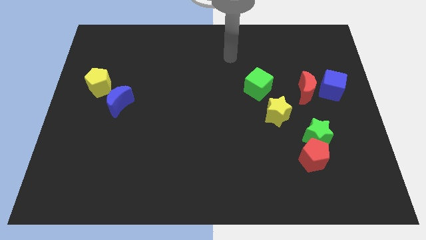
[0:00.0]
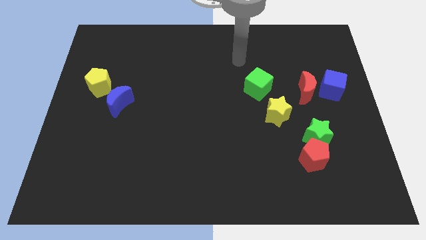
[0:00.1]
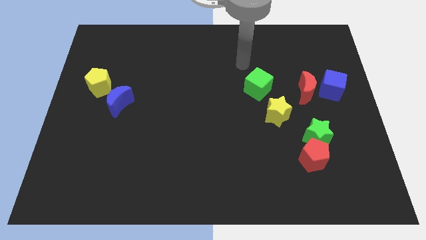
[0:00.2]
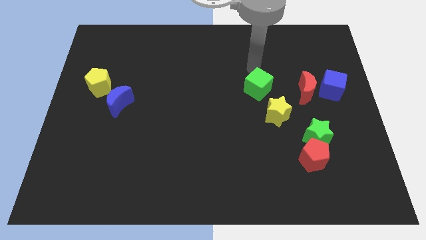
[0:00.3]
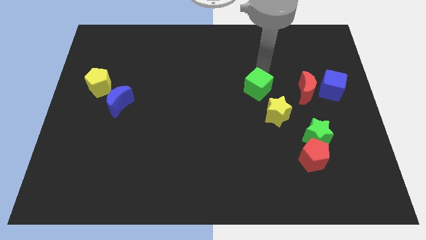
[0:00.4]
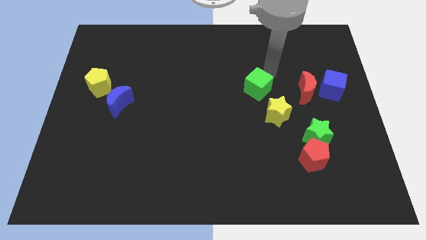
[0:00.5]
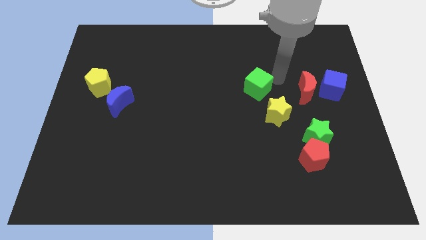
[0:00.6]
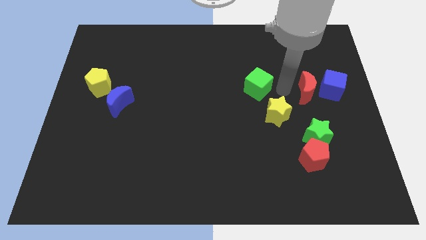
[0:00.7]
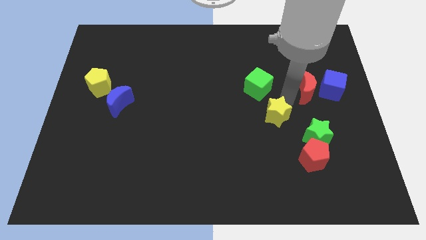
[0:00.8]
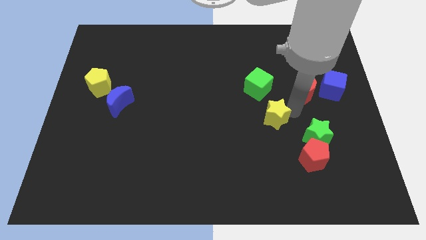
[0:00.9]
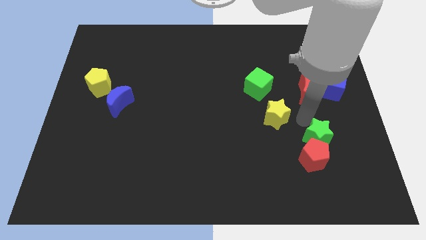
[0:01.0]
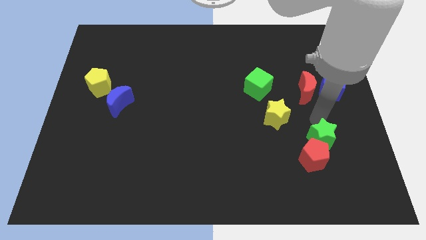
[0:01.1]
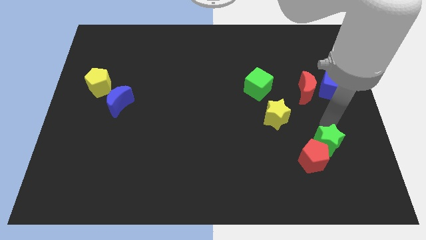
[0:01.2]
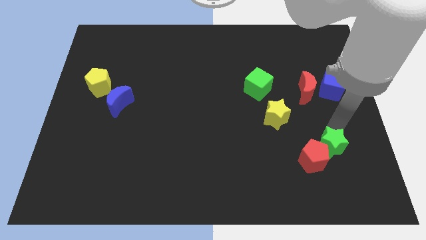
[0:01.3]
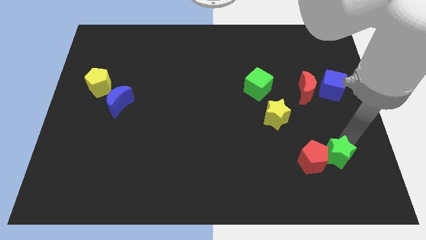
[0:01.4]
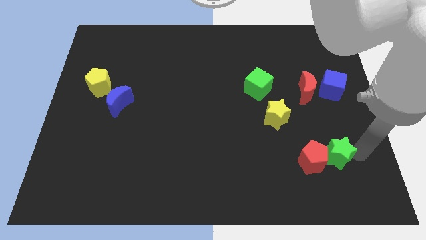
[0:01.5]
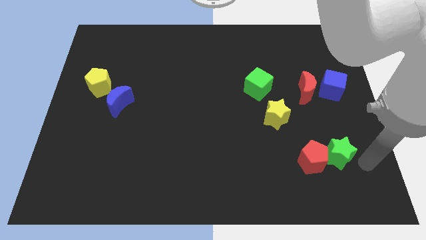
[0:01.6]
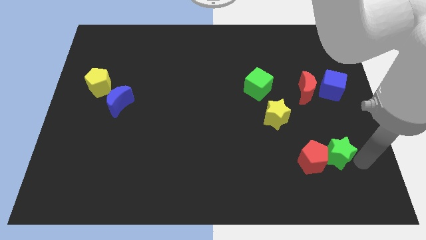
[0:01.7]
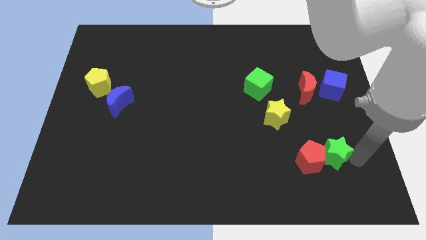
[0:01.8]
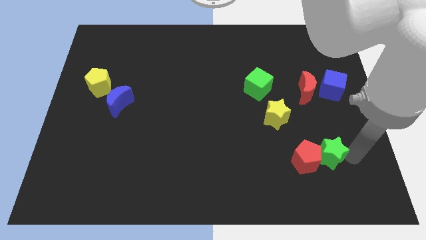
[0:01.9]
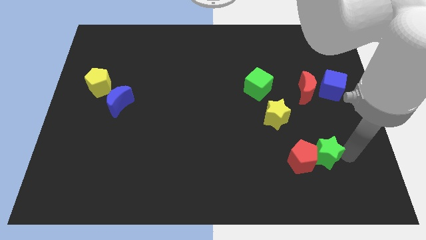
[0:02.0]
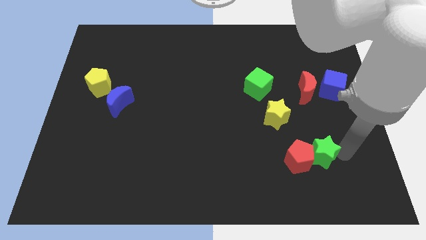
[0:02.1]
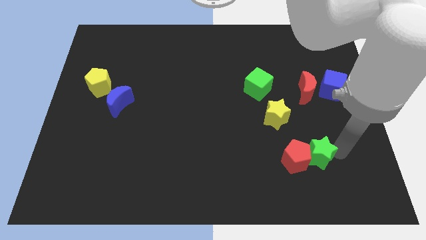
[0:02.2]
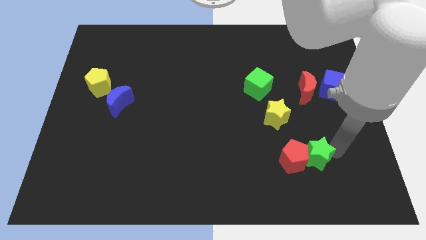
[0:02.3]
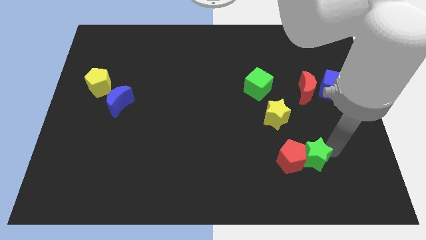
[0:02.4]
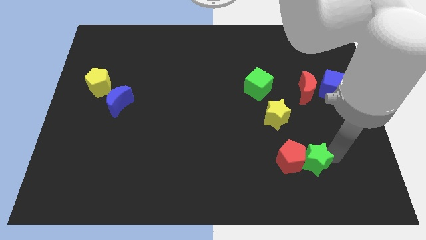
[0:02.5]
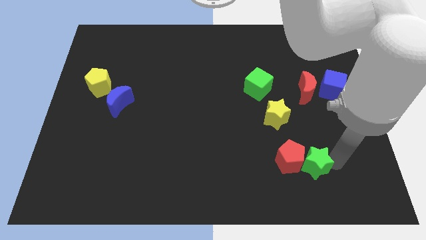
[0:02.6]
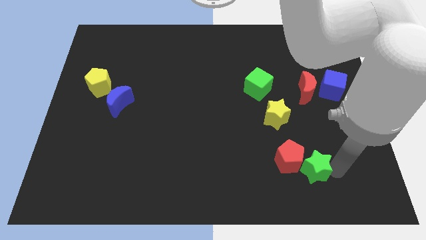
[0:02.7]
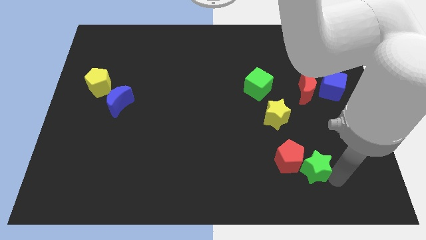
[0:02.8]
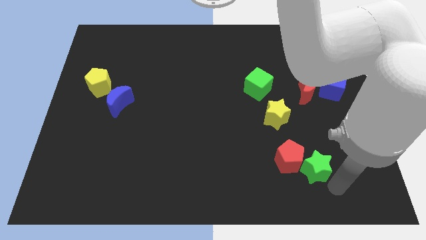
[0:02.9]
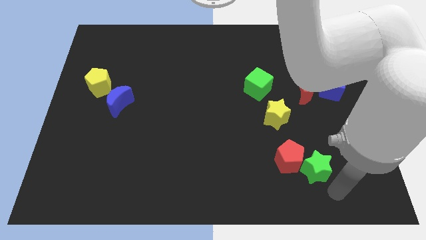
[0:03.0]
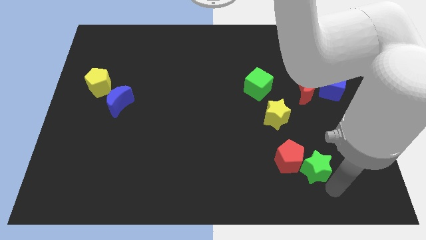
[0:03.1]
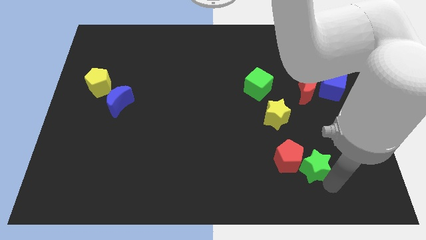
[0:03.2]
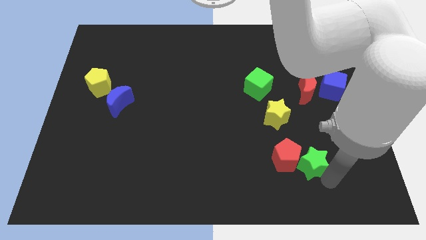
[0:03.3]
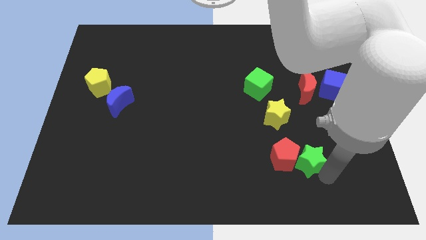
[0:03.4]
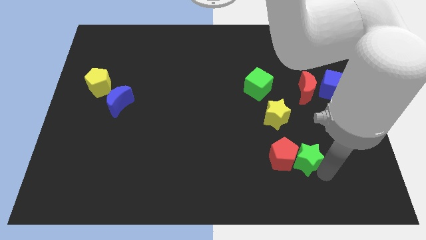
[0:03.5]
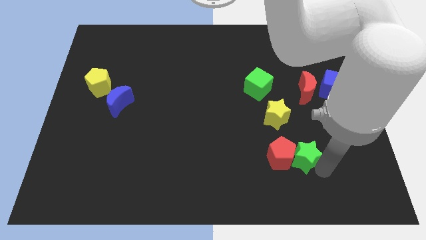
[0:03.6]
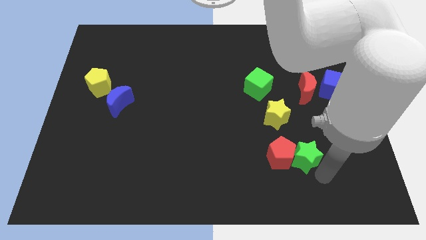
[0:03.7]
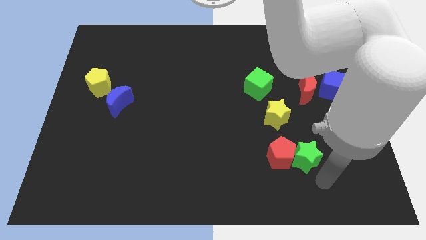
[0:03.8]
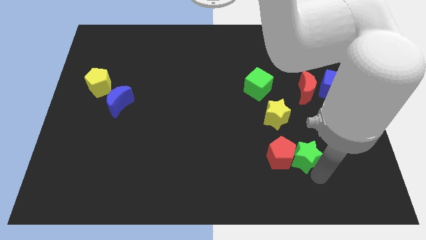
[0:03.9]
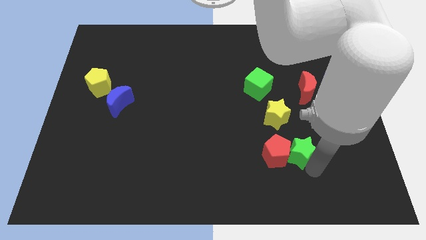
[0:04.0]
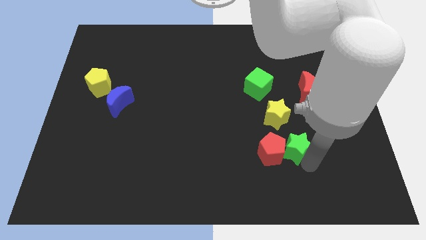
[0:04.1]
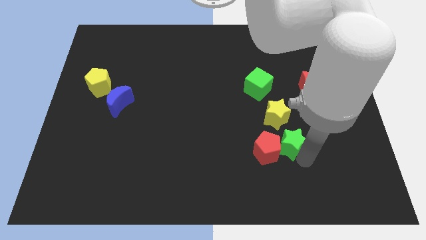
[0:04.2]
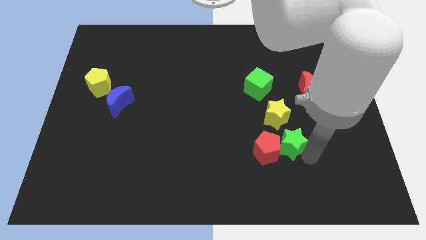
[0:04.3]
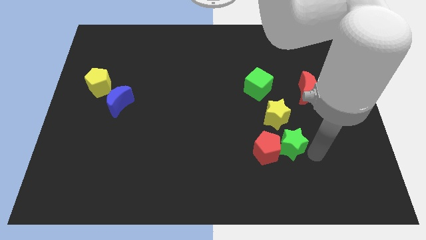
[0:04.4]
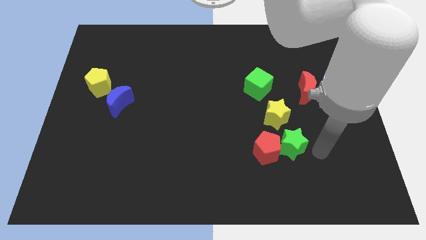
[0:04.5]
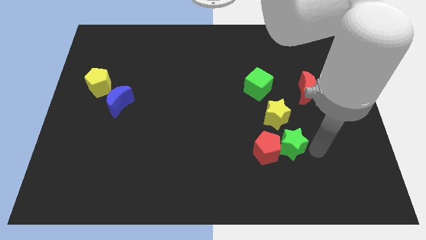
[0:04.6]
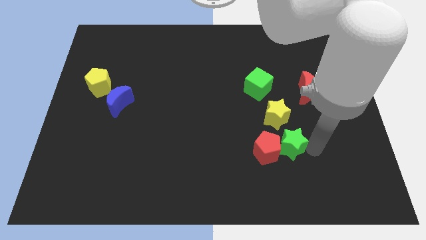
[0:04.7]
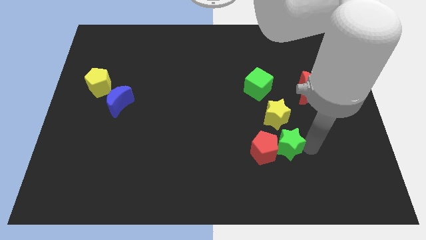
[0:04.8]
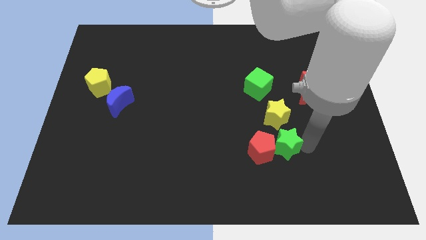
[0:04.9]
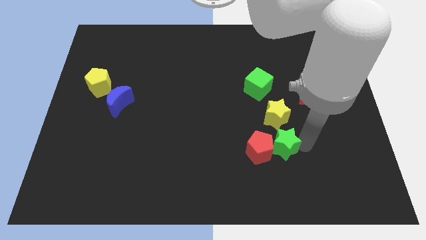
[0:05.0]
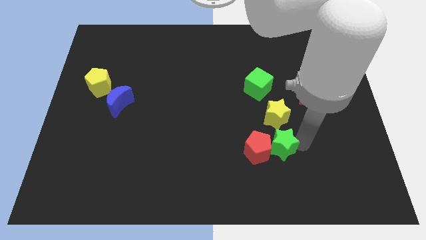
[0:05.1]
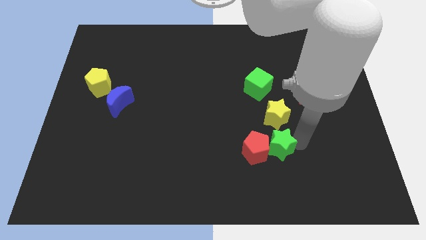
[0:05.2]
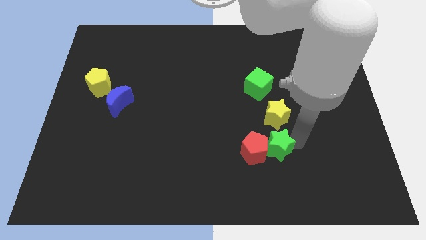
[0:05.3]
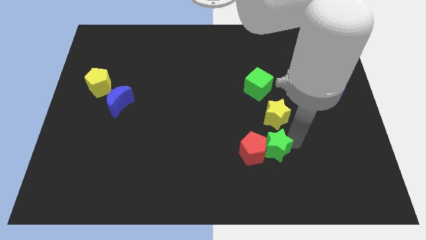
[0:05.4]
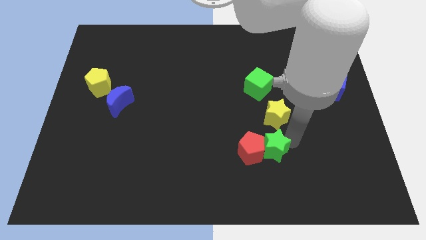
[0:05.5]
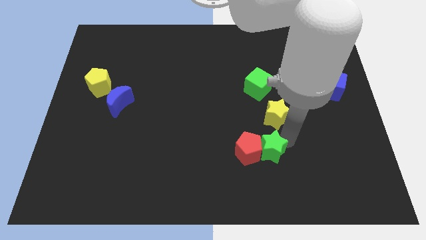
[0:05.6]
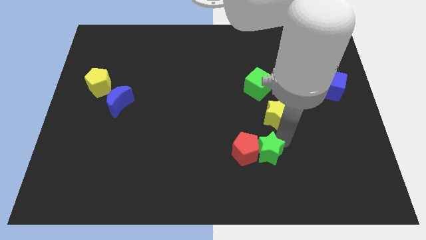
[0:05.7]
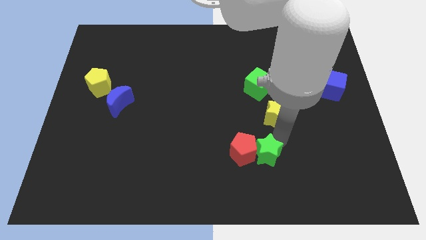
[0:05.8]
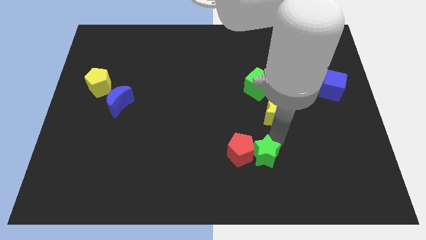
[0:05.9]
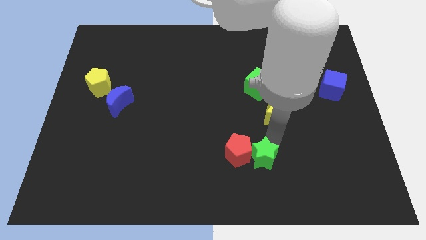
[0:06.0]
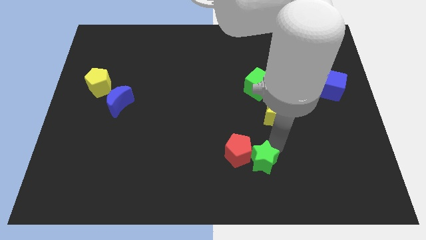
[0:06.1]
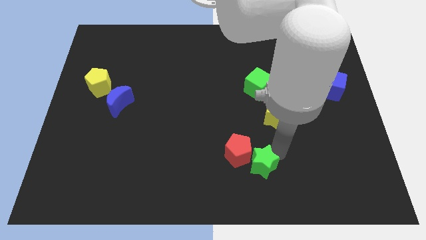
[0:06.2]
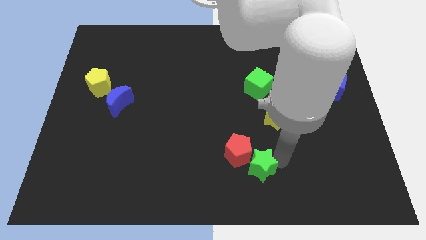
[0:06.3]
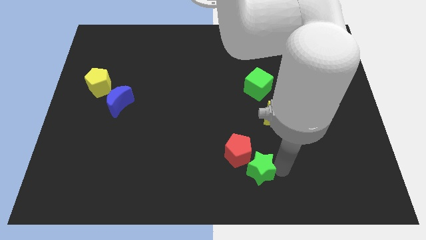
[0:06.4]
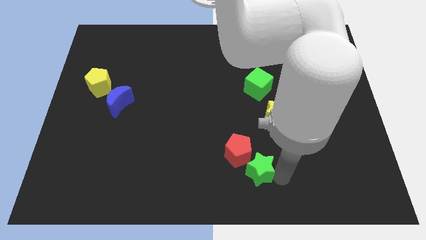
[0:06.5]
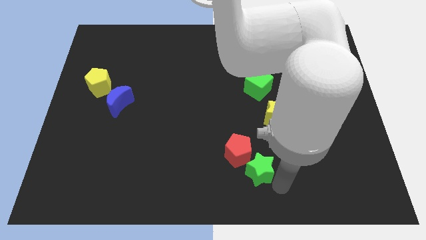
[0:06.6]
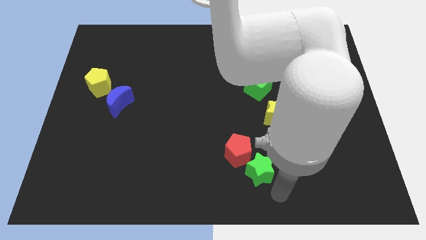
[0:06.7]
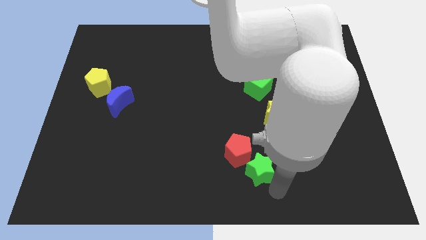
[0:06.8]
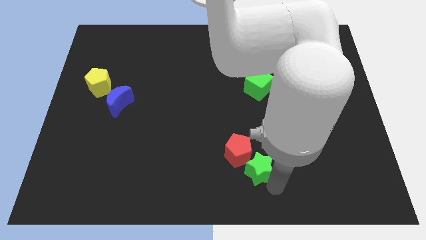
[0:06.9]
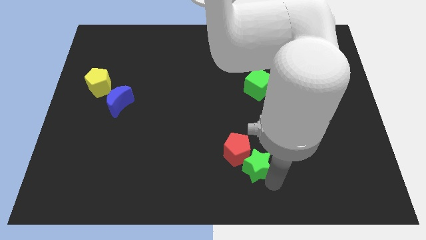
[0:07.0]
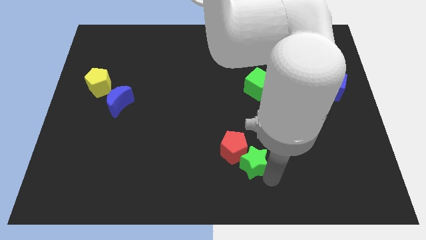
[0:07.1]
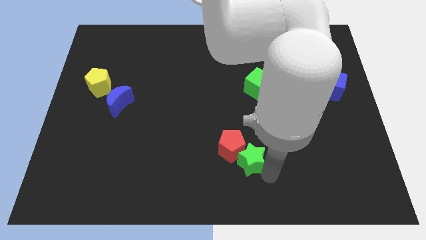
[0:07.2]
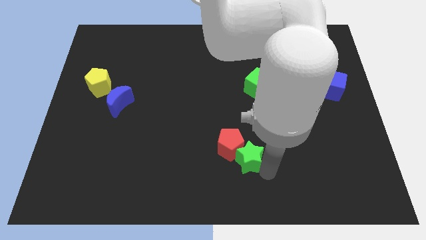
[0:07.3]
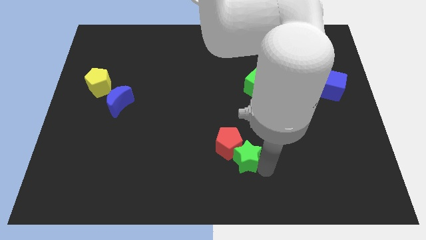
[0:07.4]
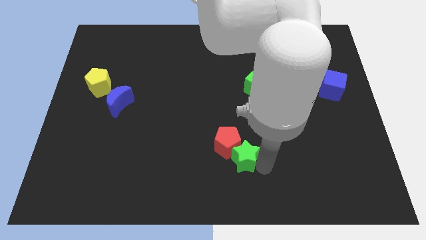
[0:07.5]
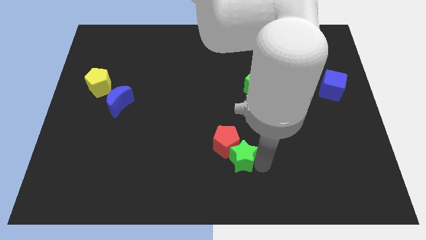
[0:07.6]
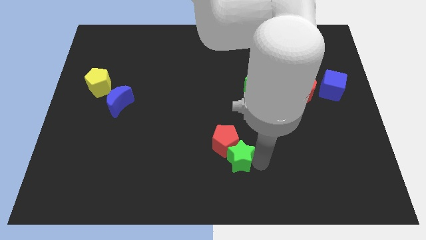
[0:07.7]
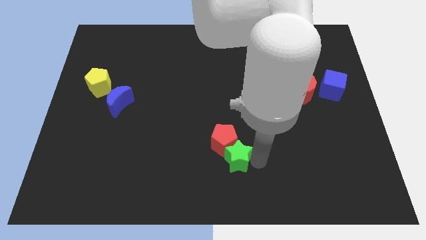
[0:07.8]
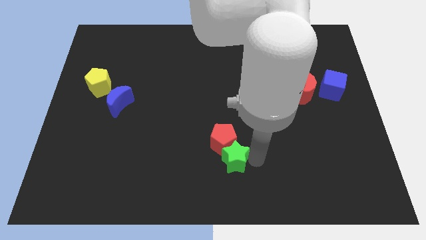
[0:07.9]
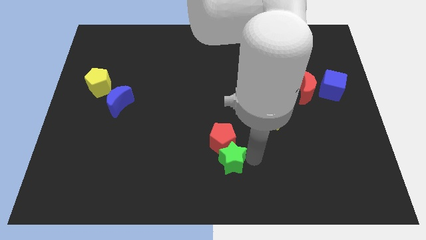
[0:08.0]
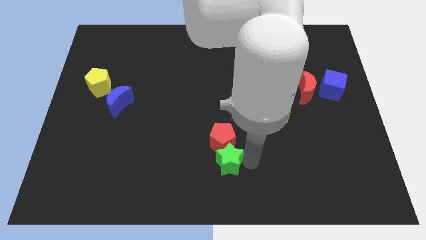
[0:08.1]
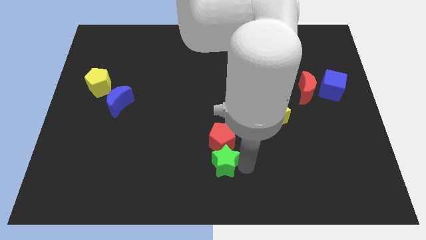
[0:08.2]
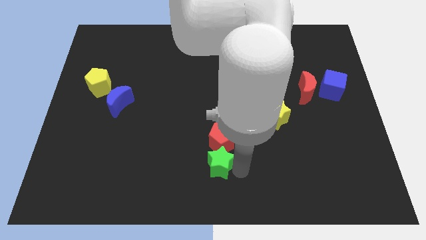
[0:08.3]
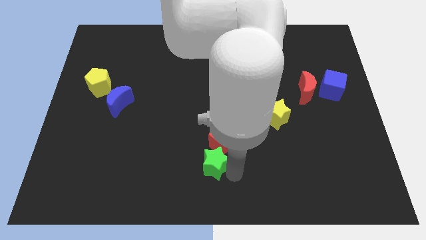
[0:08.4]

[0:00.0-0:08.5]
move the green star left
